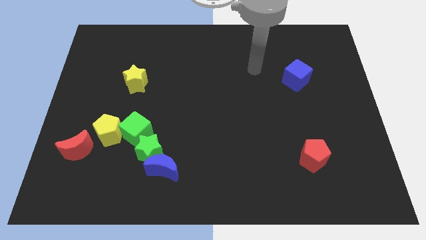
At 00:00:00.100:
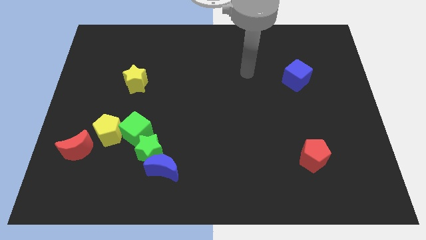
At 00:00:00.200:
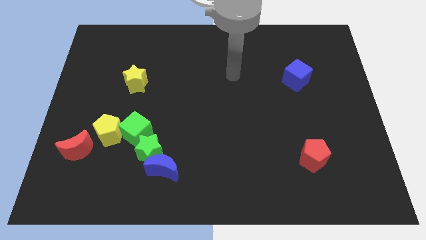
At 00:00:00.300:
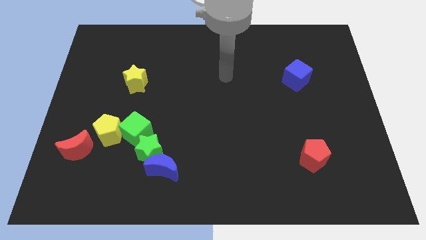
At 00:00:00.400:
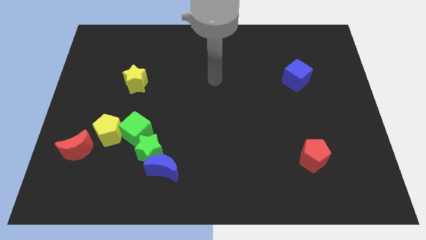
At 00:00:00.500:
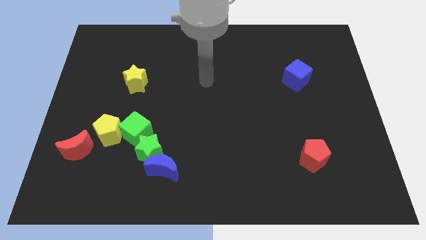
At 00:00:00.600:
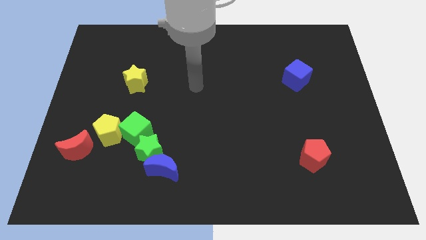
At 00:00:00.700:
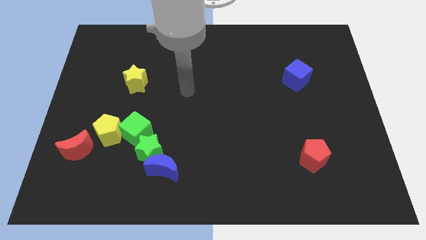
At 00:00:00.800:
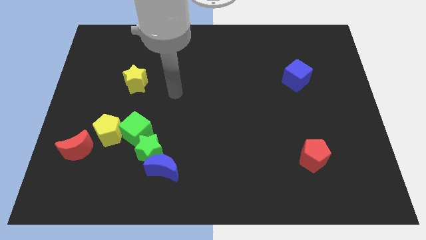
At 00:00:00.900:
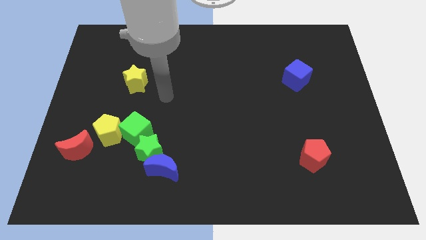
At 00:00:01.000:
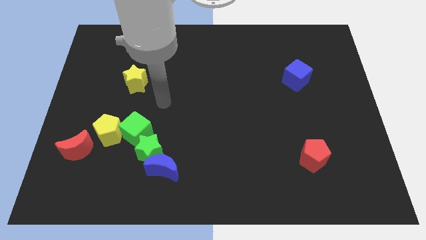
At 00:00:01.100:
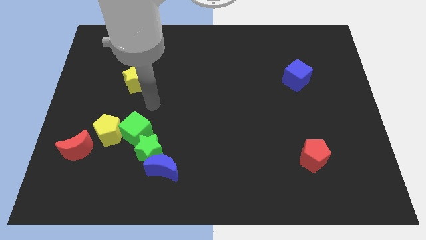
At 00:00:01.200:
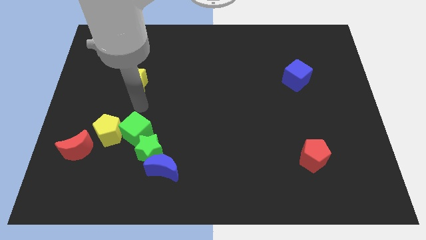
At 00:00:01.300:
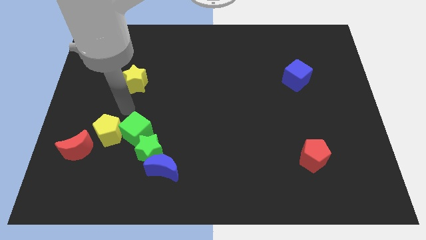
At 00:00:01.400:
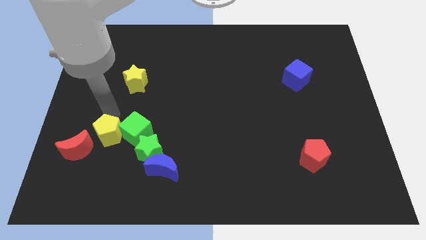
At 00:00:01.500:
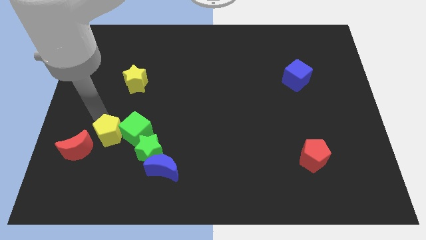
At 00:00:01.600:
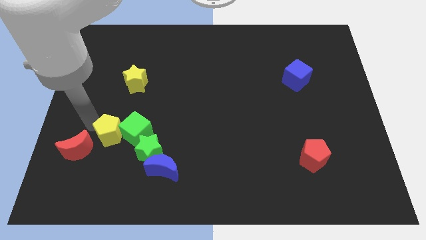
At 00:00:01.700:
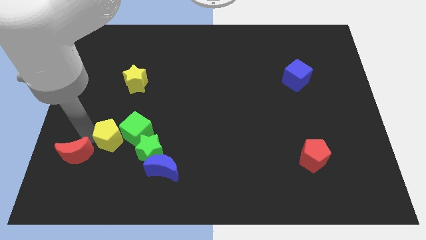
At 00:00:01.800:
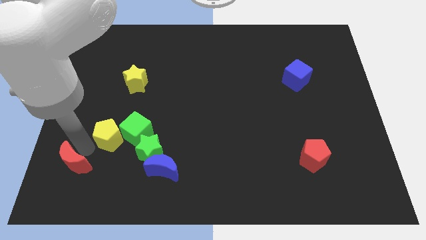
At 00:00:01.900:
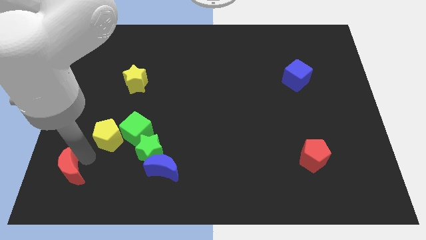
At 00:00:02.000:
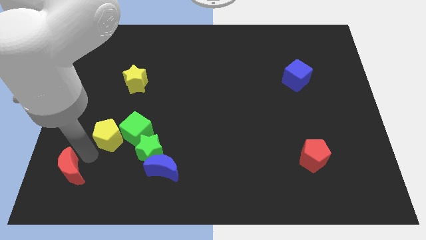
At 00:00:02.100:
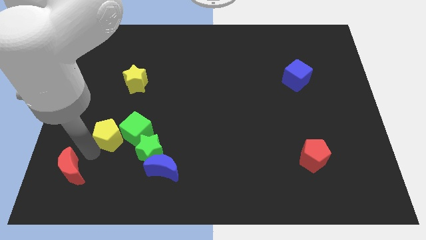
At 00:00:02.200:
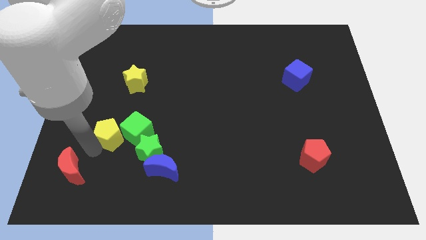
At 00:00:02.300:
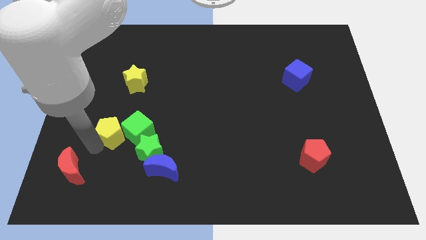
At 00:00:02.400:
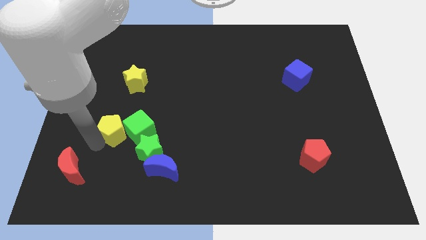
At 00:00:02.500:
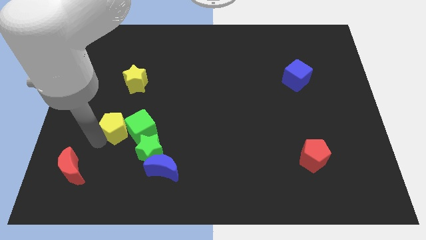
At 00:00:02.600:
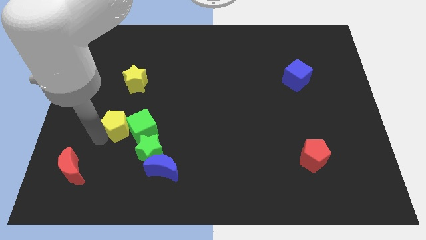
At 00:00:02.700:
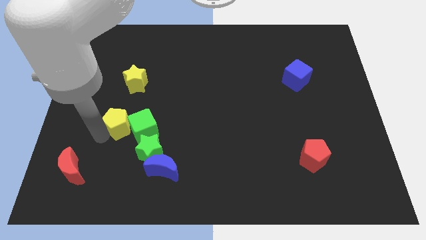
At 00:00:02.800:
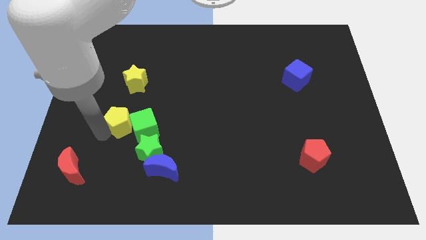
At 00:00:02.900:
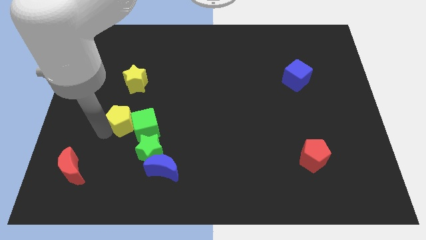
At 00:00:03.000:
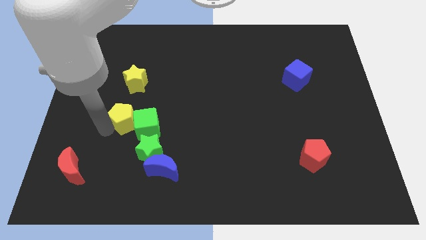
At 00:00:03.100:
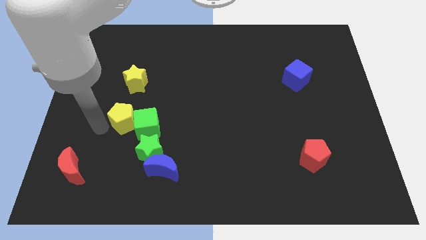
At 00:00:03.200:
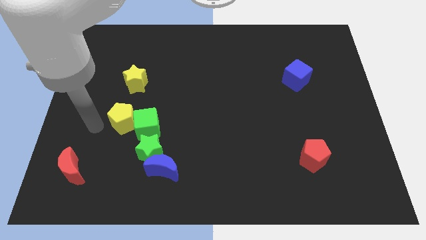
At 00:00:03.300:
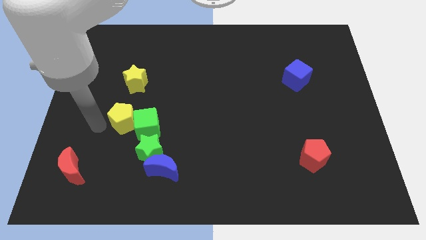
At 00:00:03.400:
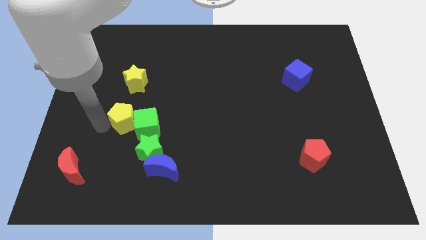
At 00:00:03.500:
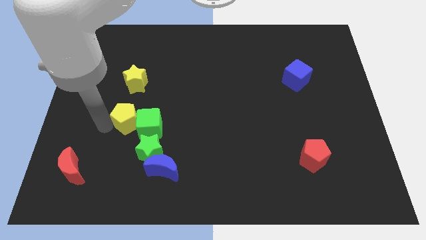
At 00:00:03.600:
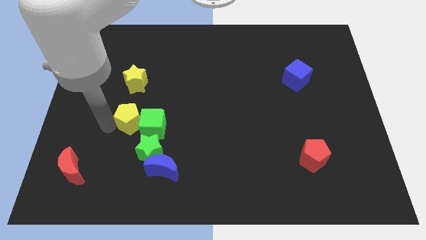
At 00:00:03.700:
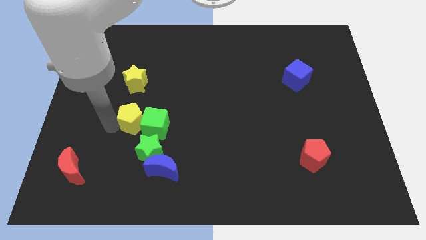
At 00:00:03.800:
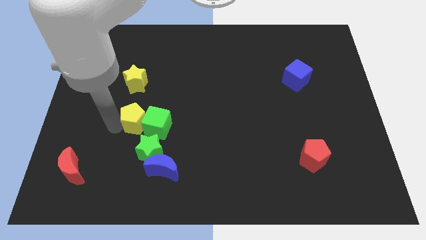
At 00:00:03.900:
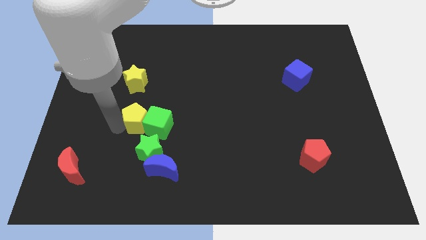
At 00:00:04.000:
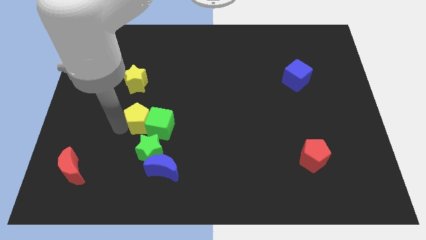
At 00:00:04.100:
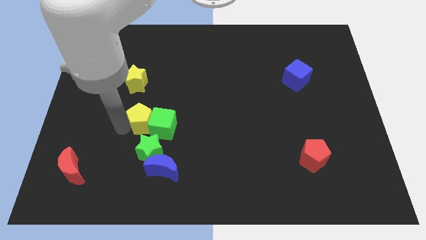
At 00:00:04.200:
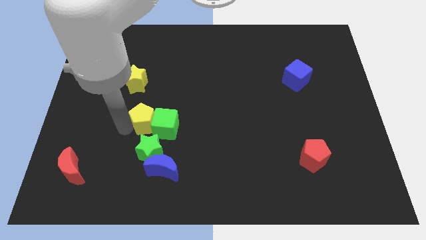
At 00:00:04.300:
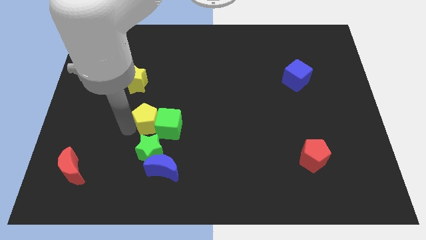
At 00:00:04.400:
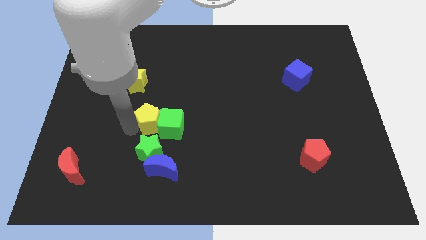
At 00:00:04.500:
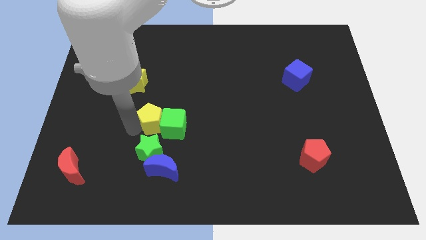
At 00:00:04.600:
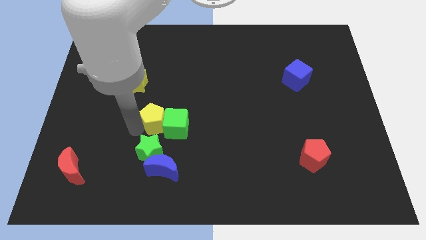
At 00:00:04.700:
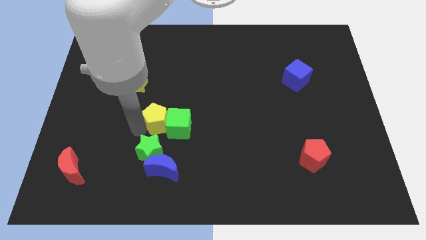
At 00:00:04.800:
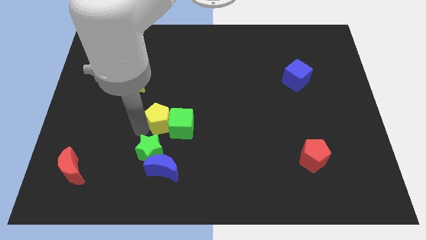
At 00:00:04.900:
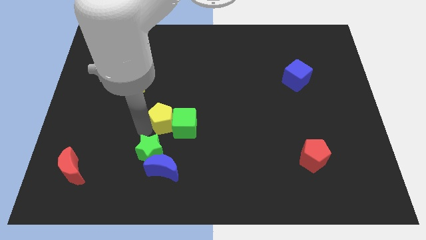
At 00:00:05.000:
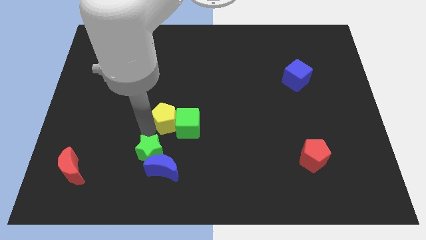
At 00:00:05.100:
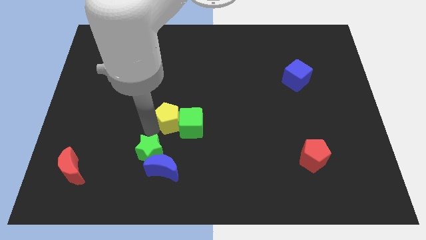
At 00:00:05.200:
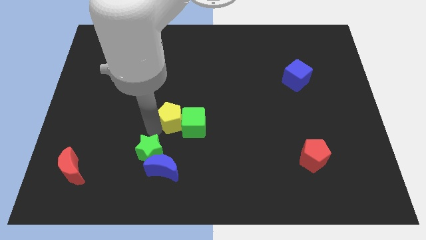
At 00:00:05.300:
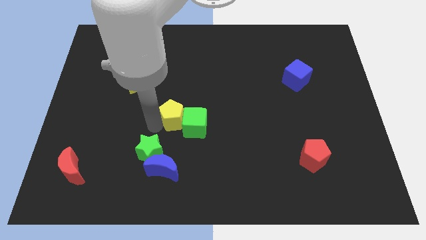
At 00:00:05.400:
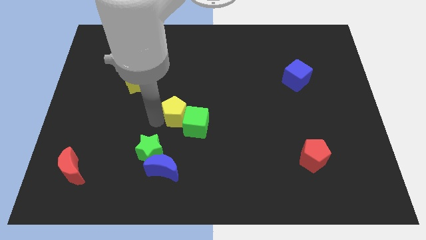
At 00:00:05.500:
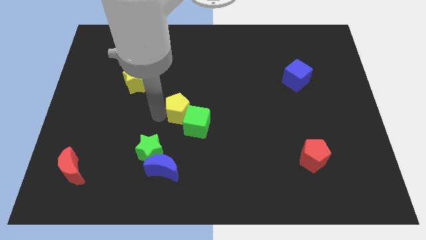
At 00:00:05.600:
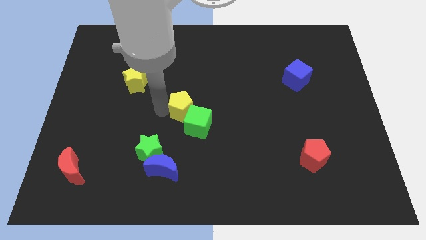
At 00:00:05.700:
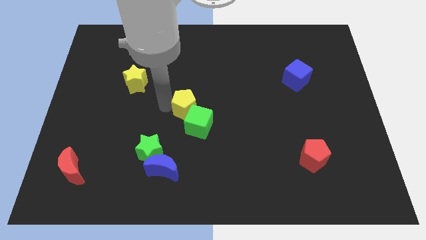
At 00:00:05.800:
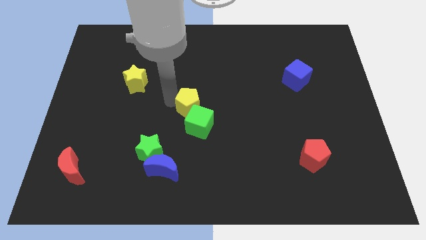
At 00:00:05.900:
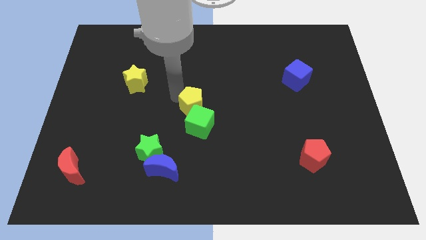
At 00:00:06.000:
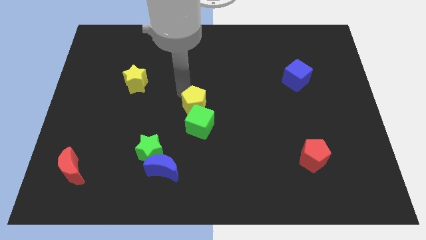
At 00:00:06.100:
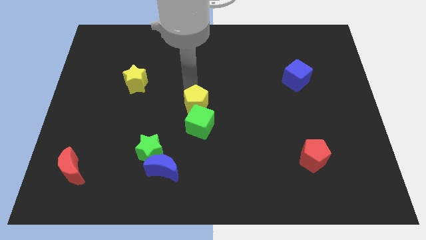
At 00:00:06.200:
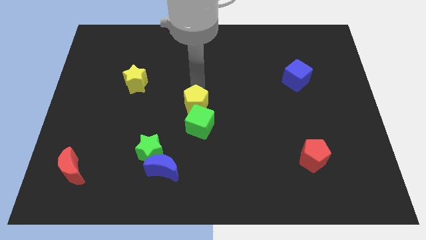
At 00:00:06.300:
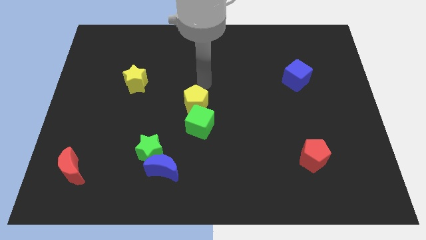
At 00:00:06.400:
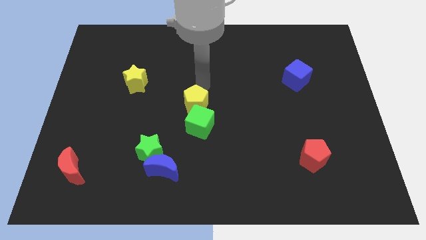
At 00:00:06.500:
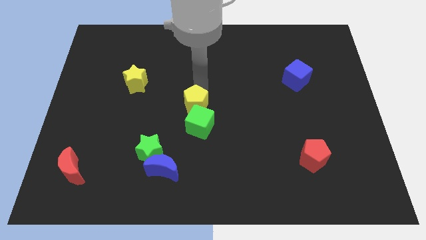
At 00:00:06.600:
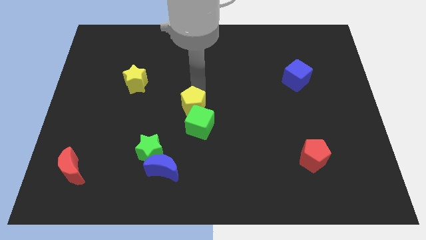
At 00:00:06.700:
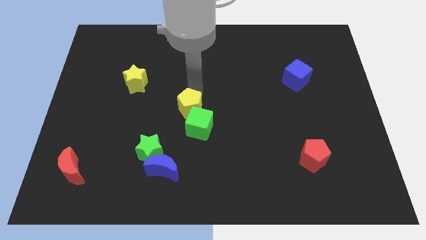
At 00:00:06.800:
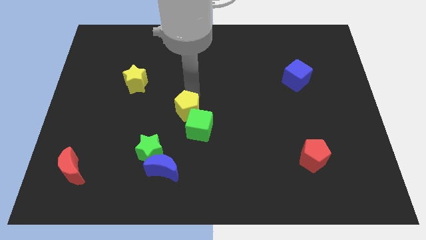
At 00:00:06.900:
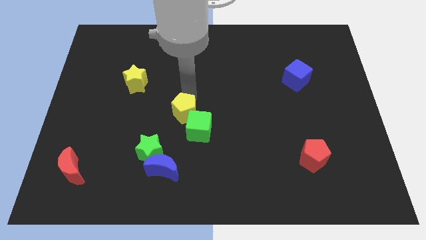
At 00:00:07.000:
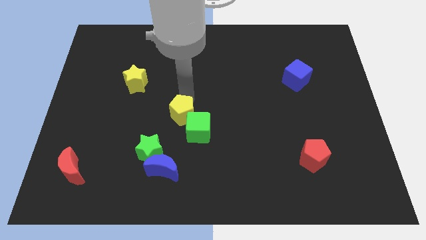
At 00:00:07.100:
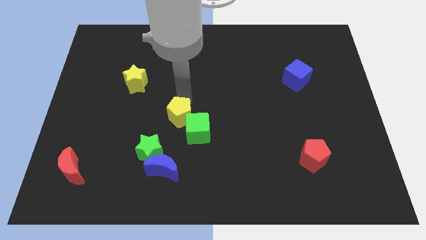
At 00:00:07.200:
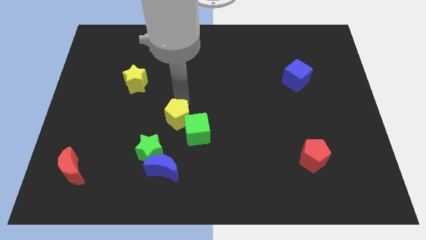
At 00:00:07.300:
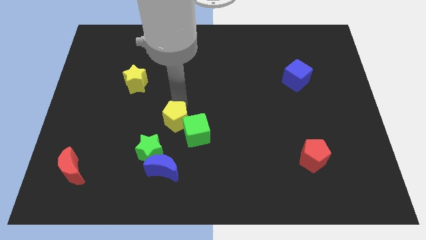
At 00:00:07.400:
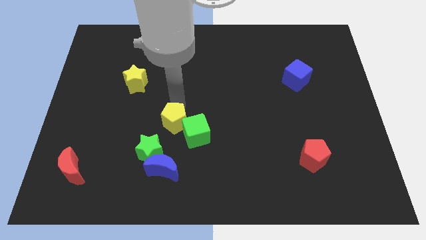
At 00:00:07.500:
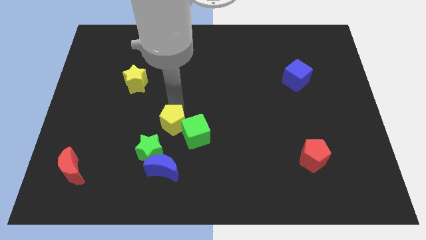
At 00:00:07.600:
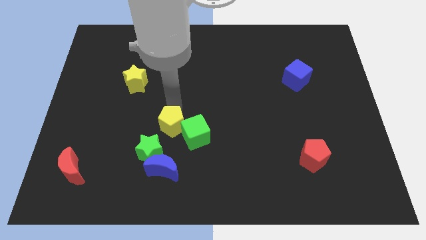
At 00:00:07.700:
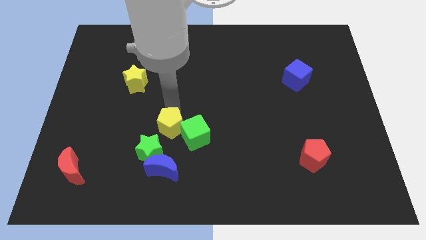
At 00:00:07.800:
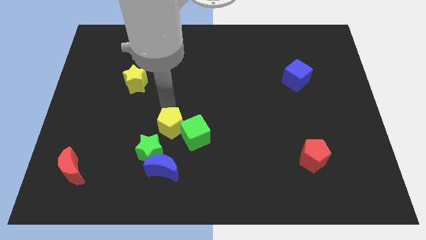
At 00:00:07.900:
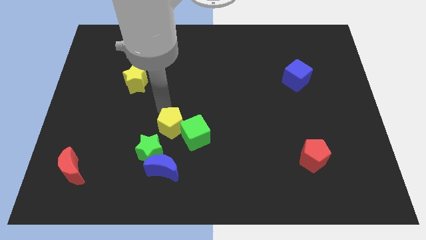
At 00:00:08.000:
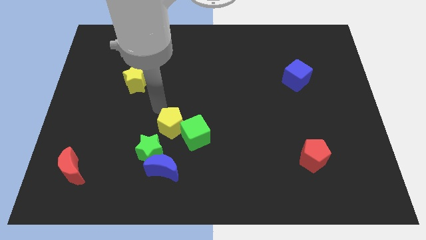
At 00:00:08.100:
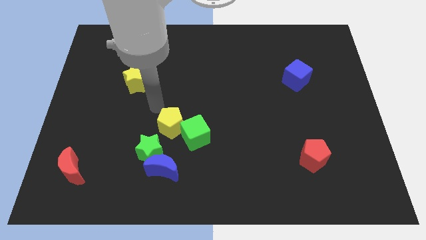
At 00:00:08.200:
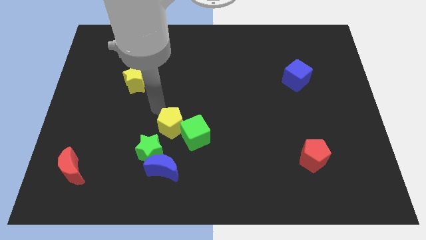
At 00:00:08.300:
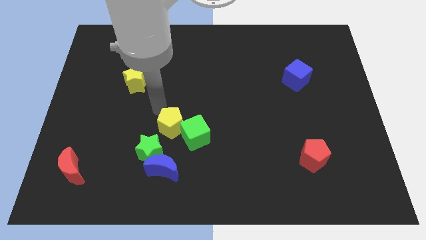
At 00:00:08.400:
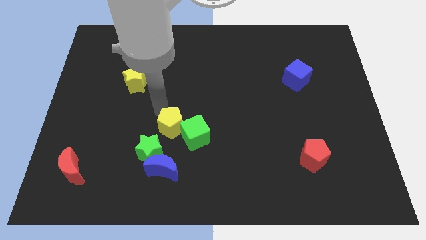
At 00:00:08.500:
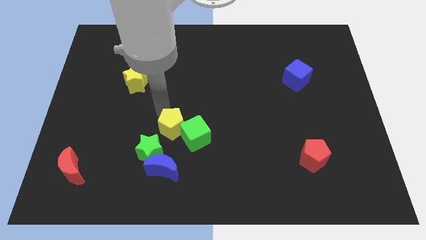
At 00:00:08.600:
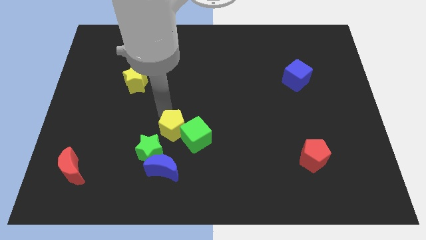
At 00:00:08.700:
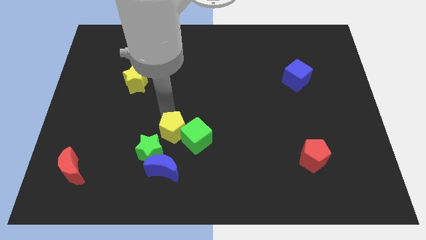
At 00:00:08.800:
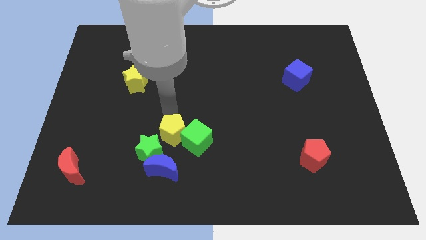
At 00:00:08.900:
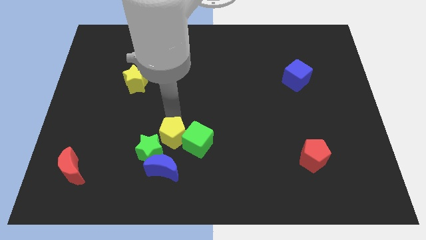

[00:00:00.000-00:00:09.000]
slide the yellow pentagon right of the green star
